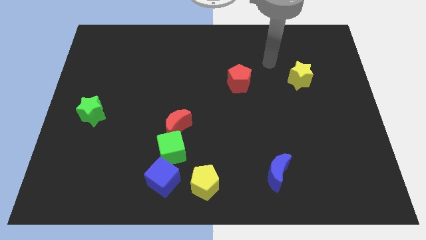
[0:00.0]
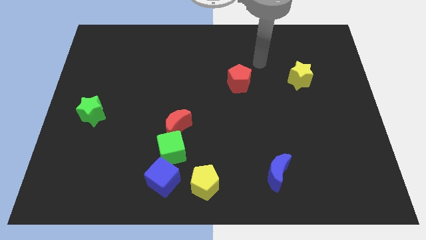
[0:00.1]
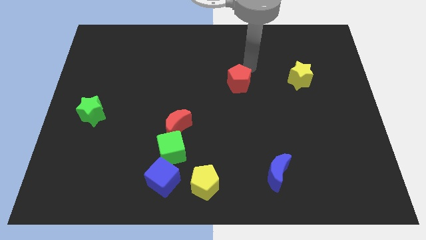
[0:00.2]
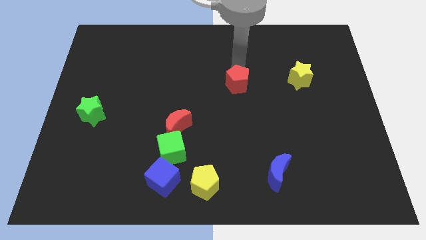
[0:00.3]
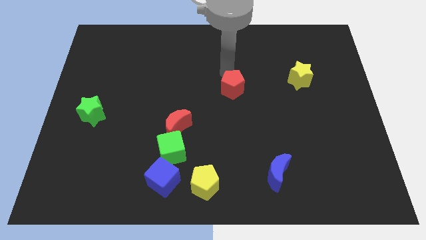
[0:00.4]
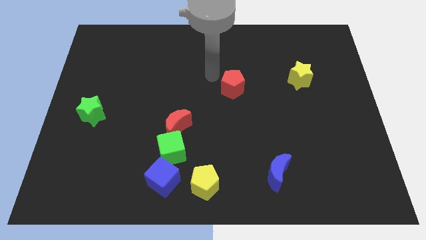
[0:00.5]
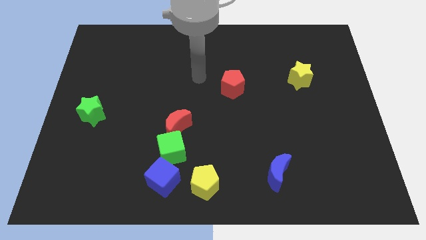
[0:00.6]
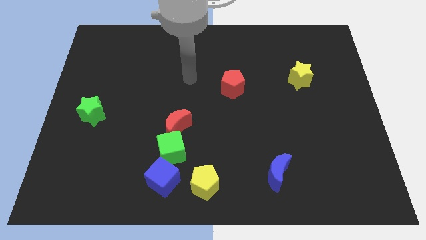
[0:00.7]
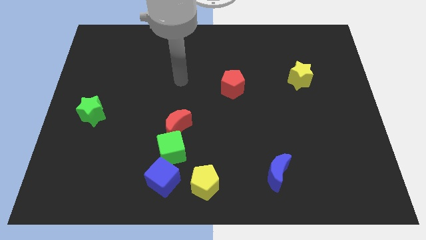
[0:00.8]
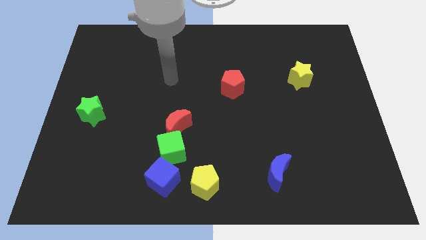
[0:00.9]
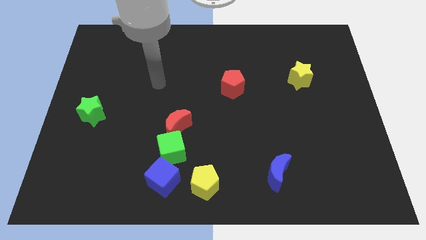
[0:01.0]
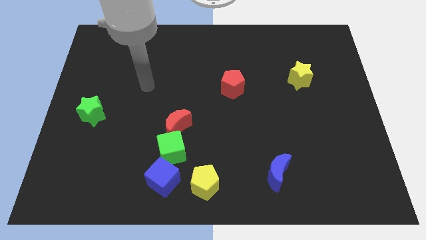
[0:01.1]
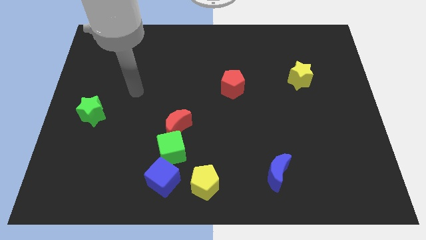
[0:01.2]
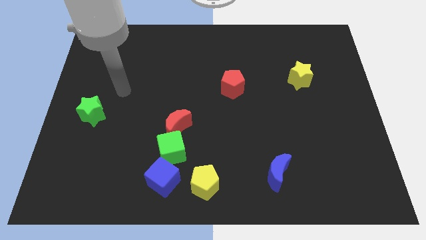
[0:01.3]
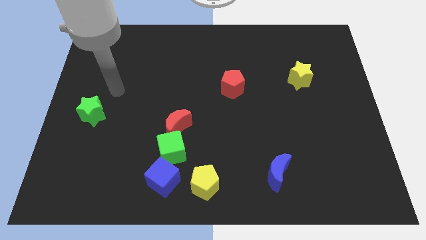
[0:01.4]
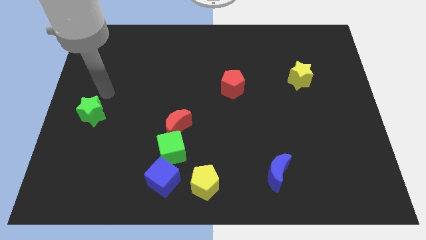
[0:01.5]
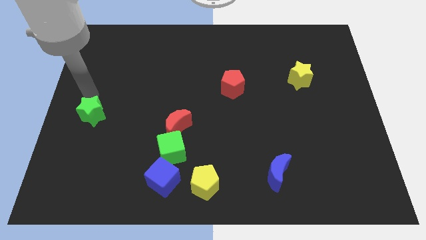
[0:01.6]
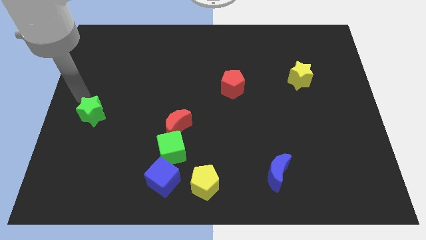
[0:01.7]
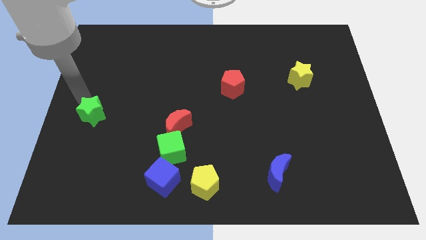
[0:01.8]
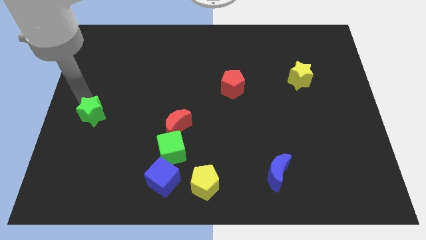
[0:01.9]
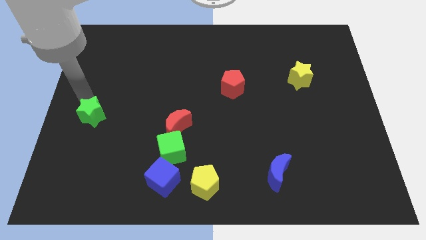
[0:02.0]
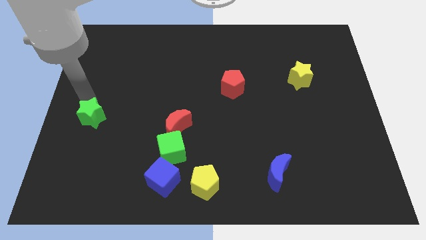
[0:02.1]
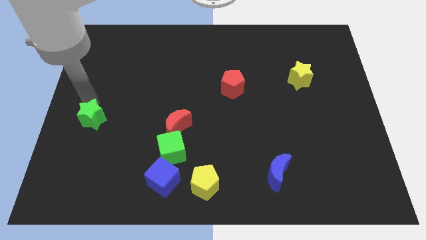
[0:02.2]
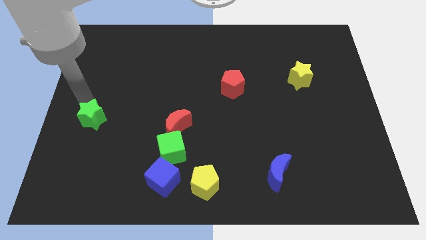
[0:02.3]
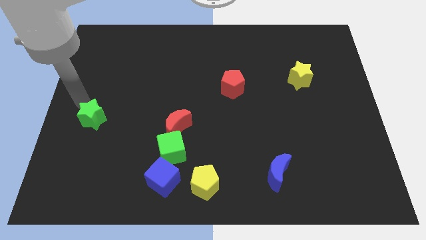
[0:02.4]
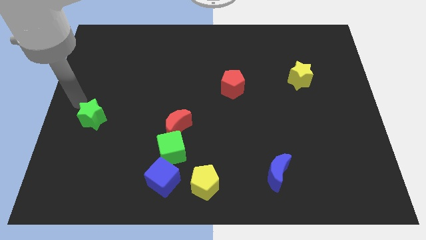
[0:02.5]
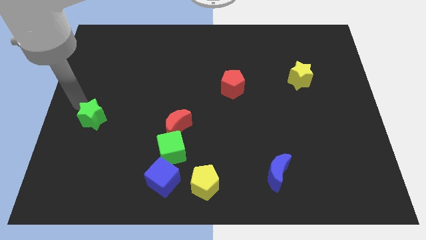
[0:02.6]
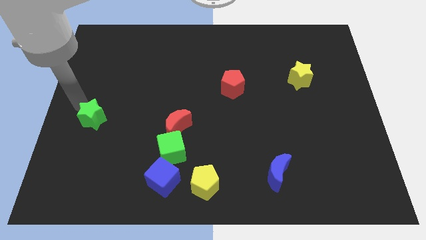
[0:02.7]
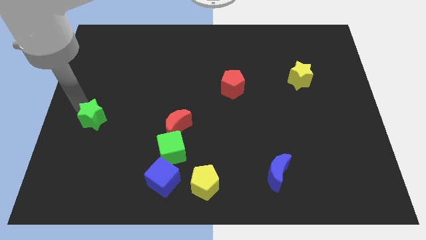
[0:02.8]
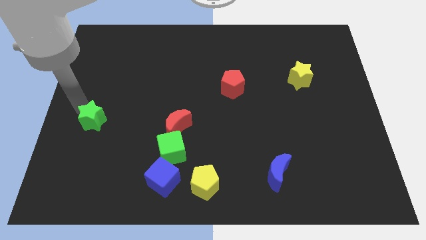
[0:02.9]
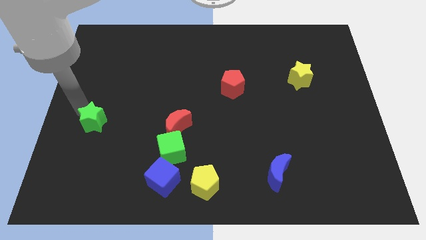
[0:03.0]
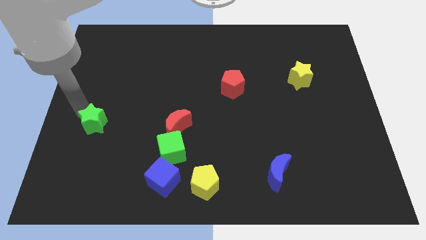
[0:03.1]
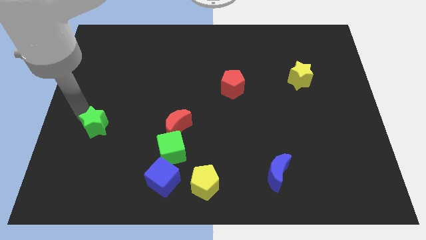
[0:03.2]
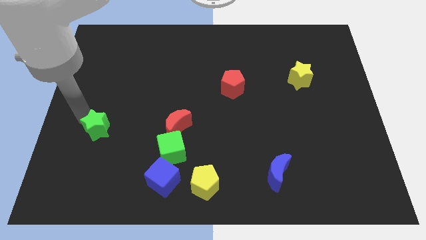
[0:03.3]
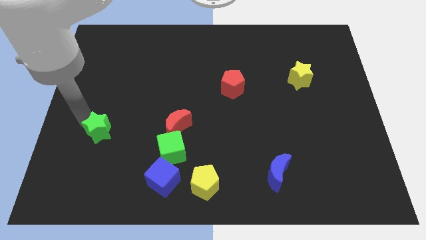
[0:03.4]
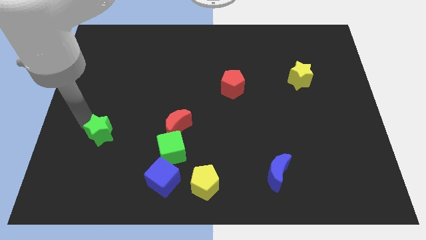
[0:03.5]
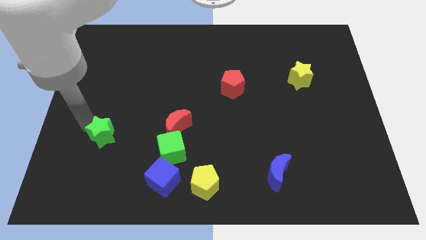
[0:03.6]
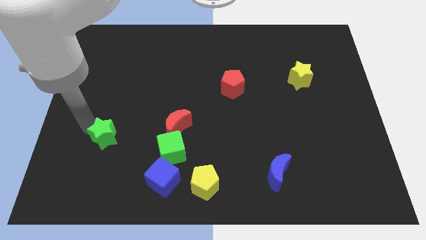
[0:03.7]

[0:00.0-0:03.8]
push the green star diagonally down and right a little

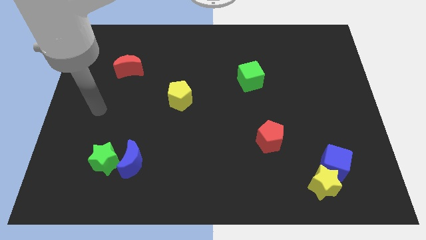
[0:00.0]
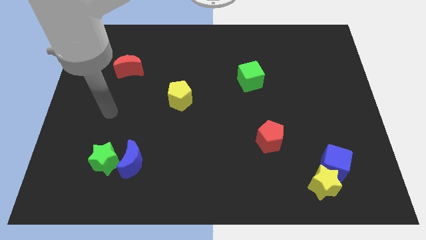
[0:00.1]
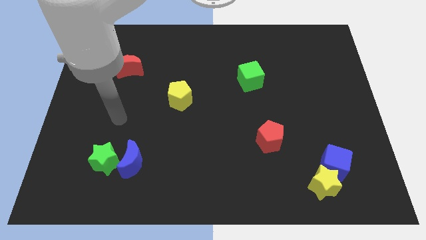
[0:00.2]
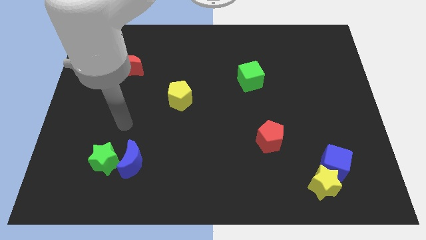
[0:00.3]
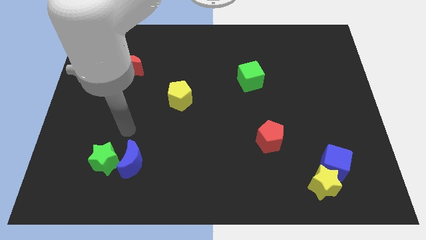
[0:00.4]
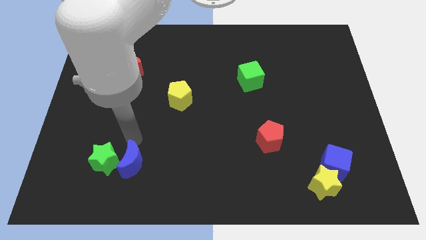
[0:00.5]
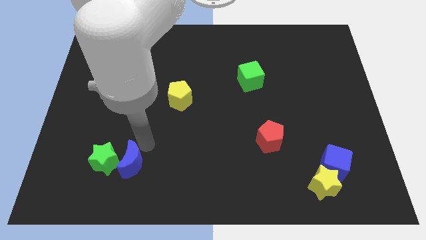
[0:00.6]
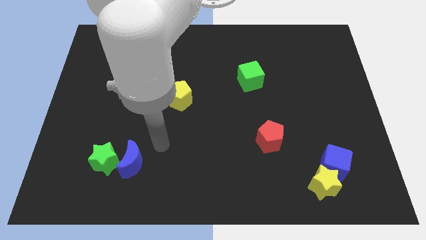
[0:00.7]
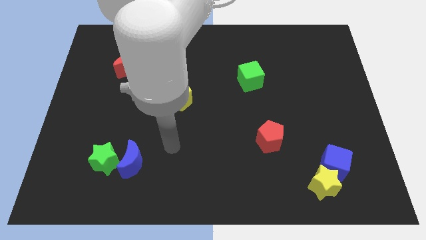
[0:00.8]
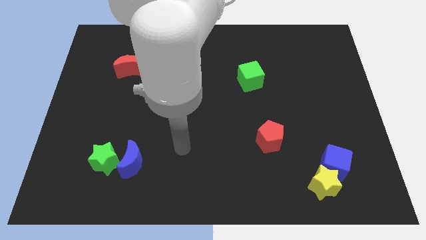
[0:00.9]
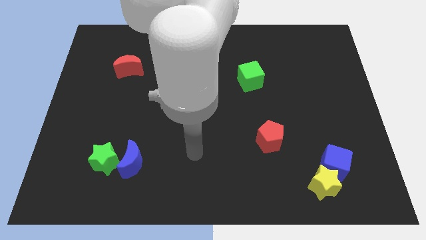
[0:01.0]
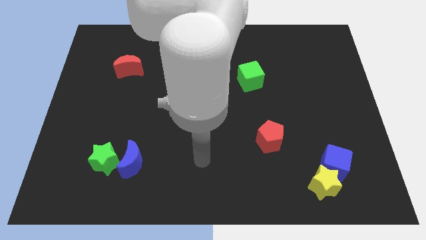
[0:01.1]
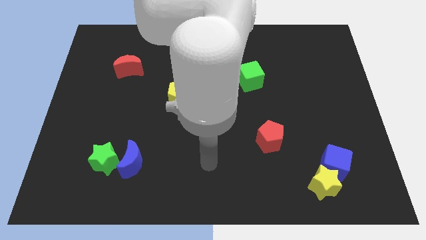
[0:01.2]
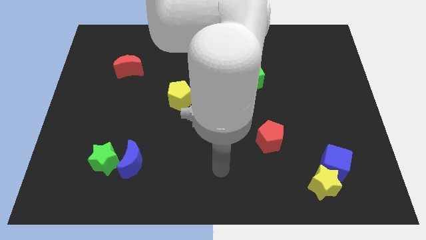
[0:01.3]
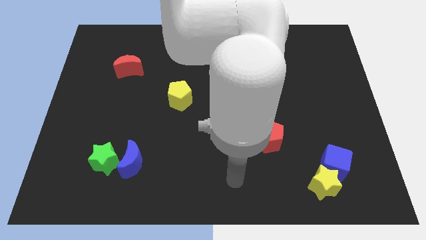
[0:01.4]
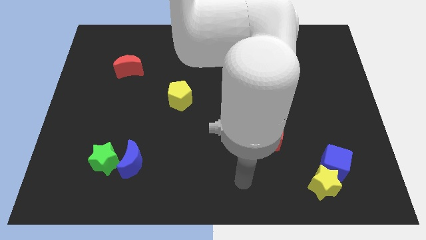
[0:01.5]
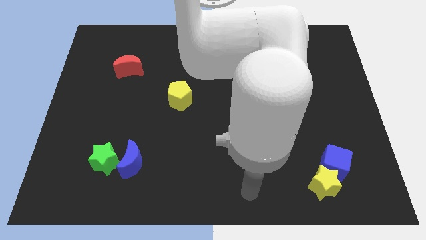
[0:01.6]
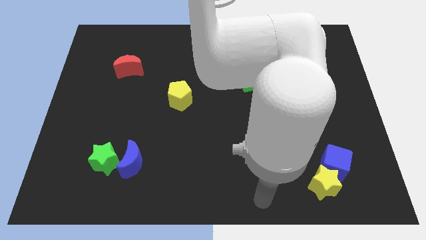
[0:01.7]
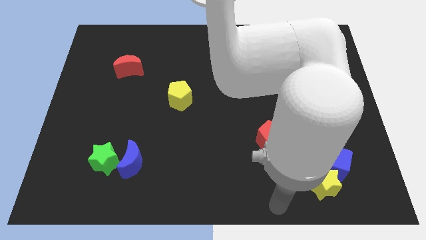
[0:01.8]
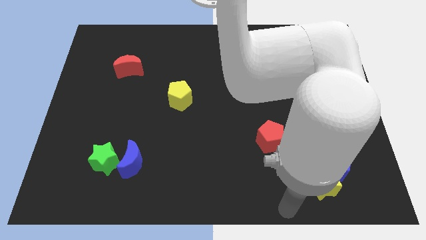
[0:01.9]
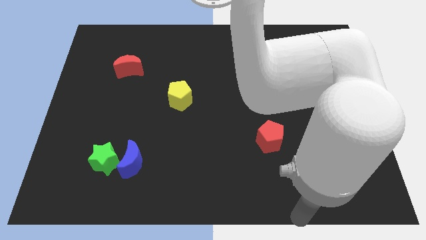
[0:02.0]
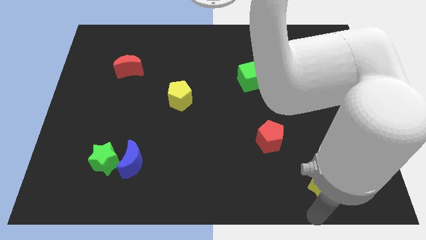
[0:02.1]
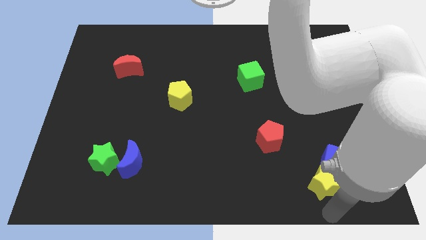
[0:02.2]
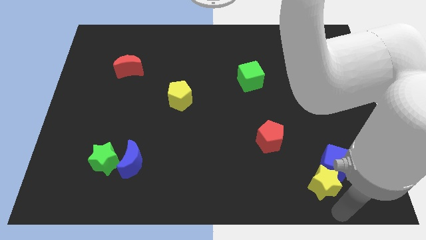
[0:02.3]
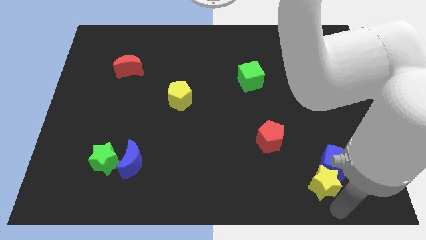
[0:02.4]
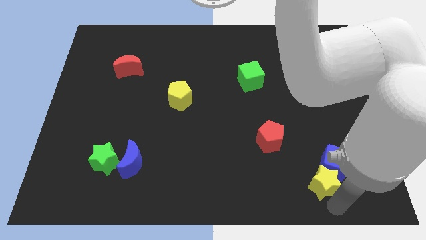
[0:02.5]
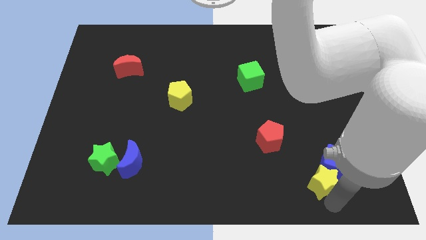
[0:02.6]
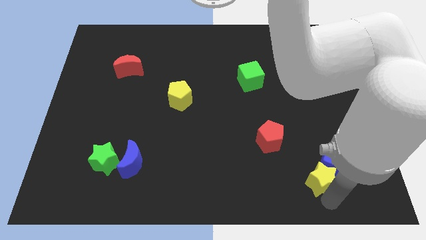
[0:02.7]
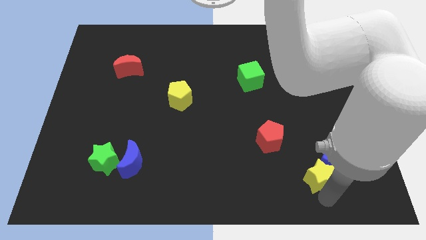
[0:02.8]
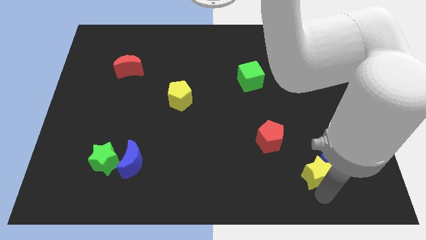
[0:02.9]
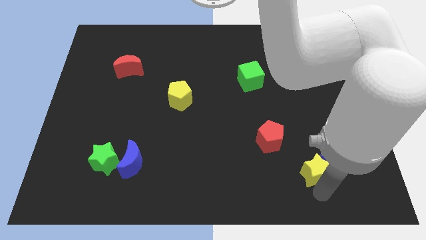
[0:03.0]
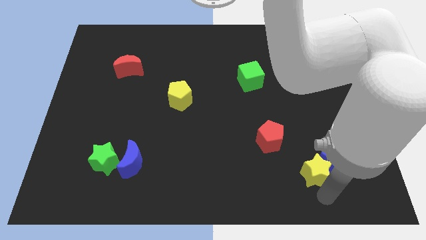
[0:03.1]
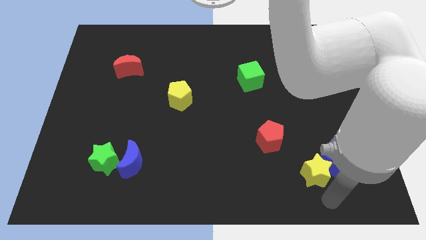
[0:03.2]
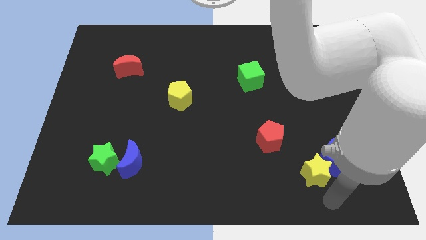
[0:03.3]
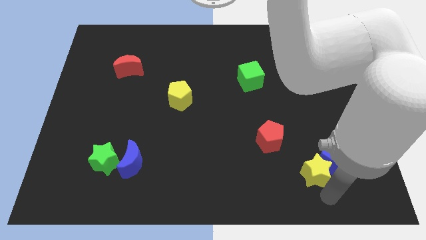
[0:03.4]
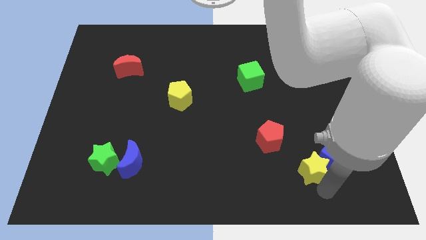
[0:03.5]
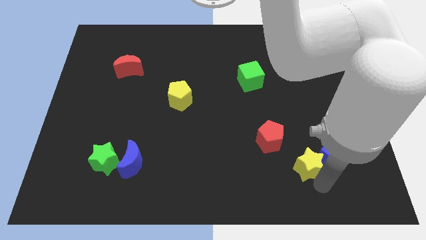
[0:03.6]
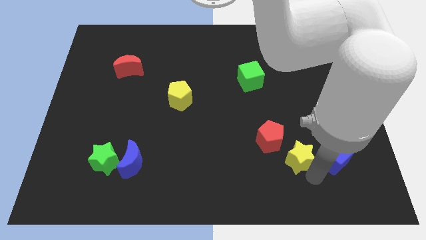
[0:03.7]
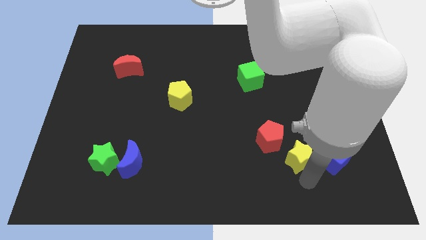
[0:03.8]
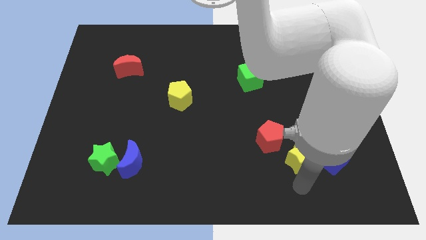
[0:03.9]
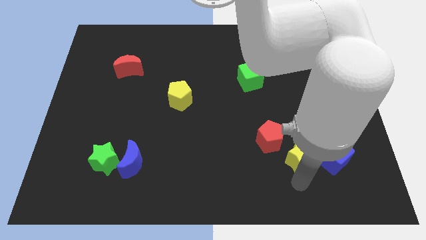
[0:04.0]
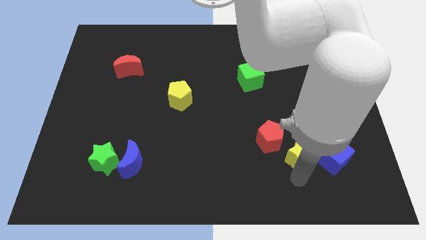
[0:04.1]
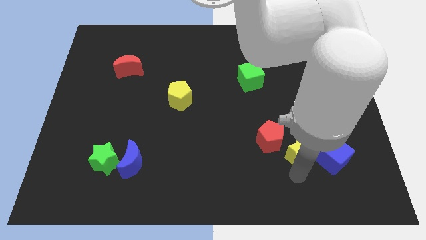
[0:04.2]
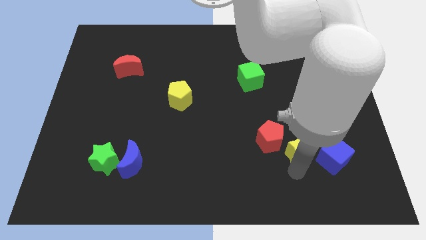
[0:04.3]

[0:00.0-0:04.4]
push the yellow star up somewhat

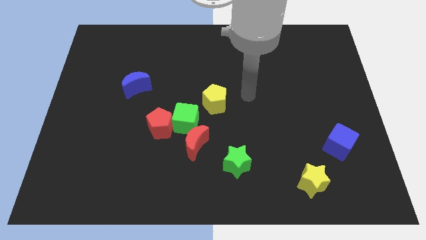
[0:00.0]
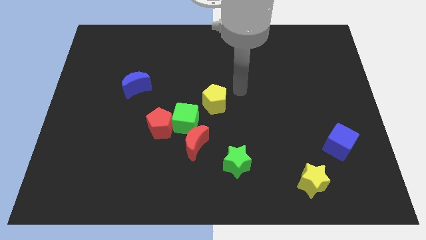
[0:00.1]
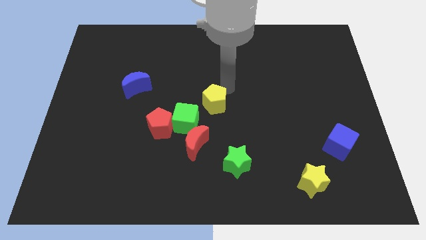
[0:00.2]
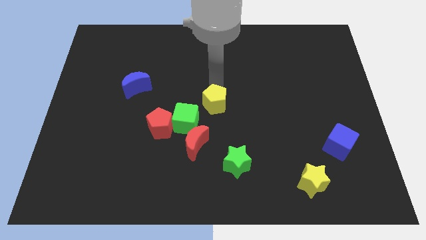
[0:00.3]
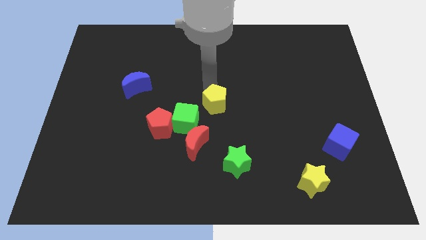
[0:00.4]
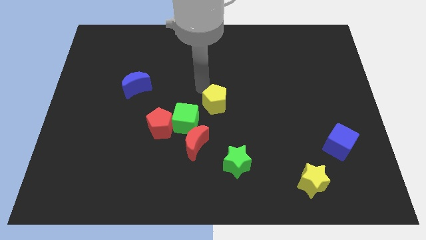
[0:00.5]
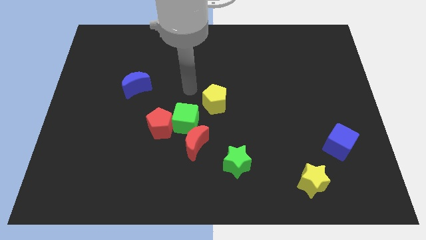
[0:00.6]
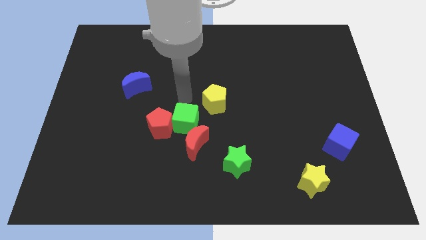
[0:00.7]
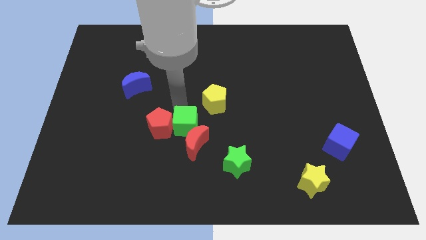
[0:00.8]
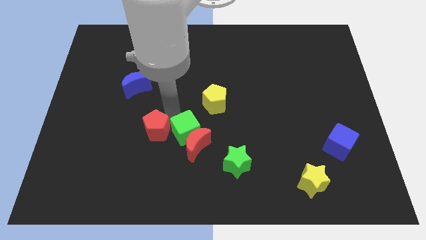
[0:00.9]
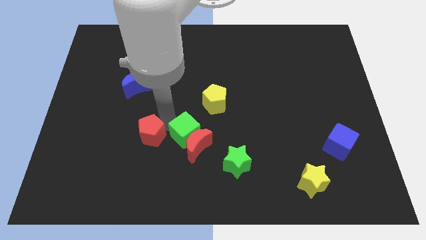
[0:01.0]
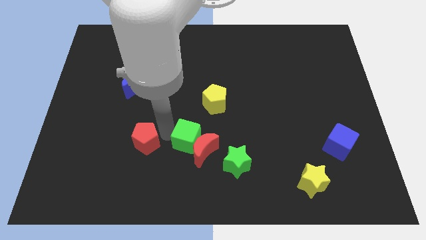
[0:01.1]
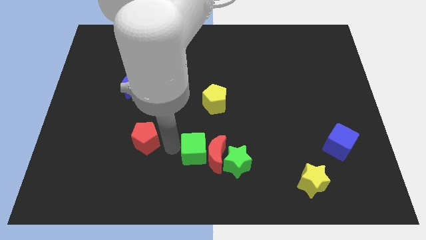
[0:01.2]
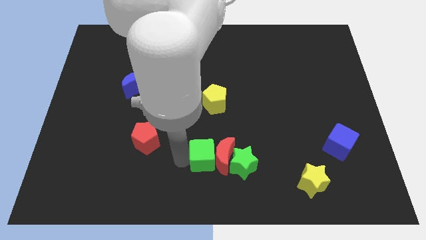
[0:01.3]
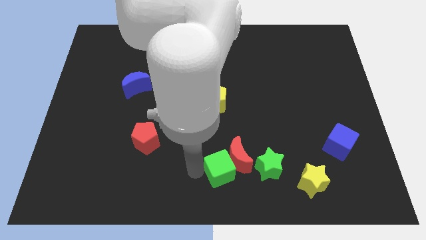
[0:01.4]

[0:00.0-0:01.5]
slightly slide the red moon to the right
